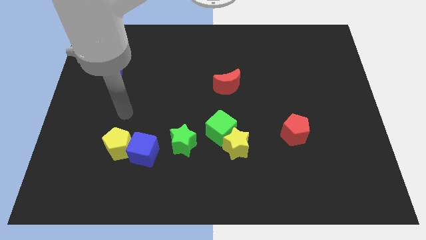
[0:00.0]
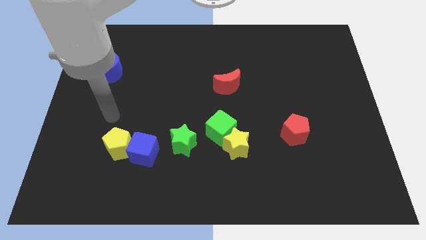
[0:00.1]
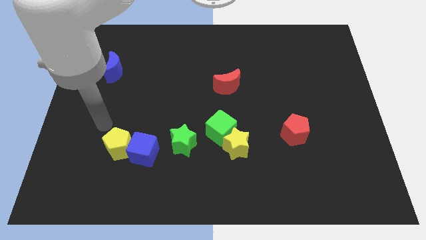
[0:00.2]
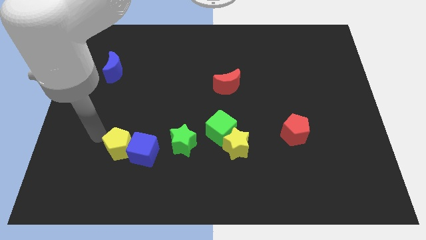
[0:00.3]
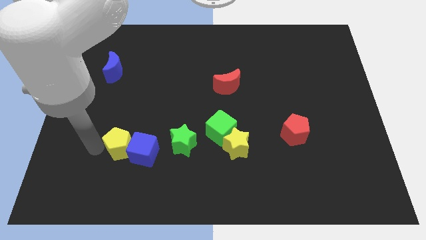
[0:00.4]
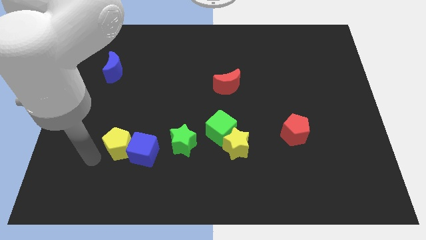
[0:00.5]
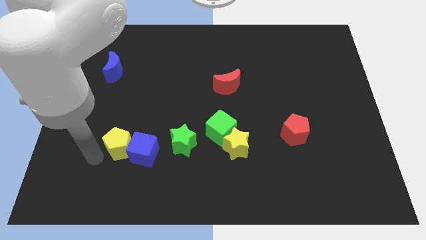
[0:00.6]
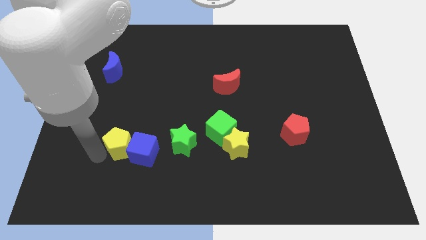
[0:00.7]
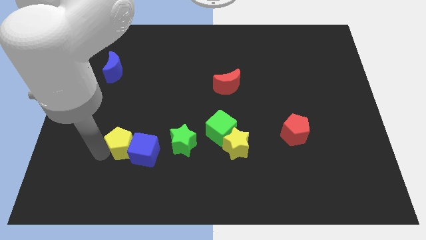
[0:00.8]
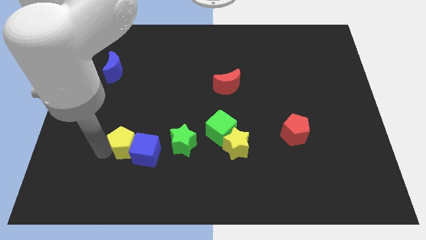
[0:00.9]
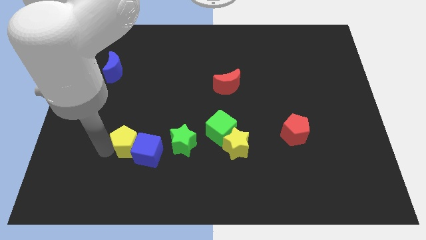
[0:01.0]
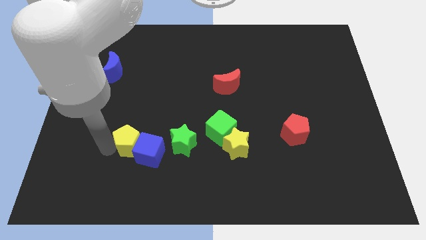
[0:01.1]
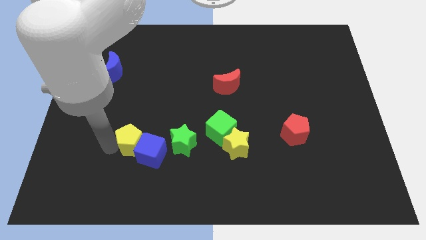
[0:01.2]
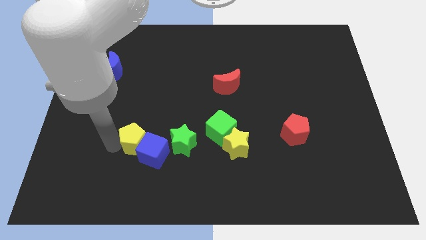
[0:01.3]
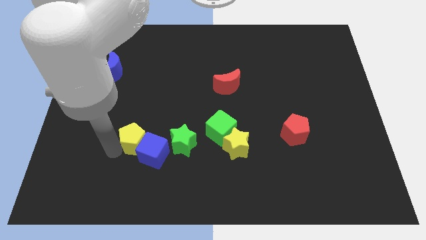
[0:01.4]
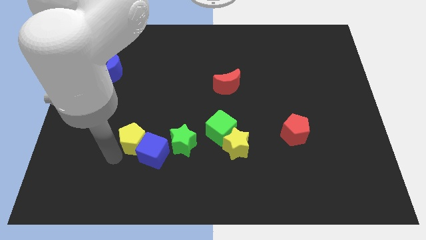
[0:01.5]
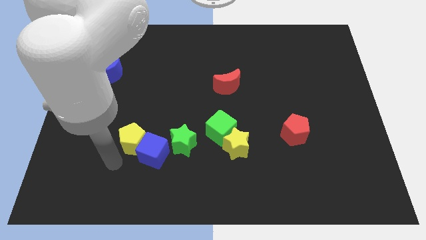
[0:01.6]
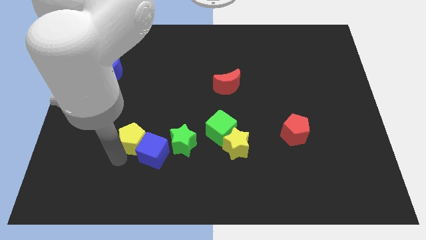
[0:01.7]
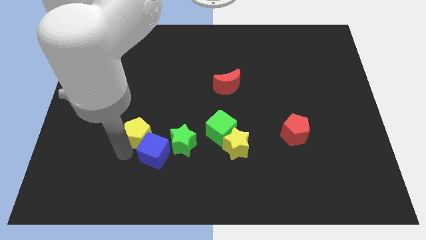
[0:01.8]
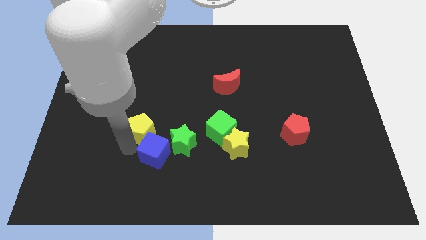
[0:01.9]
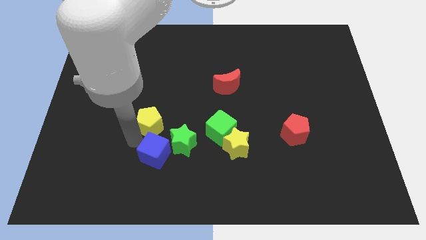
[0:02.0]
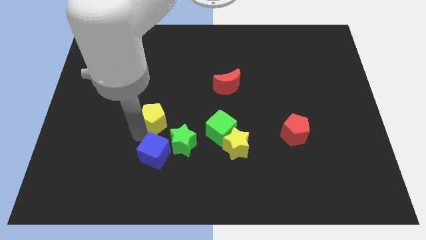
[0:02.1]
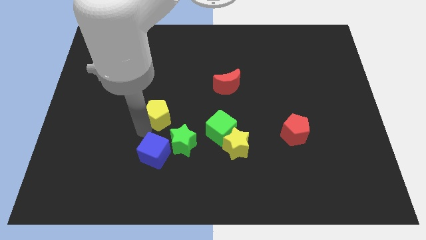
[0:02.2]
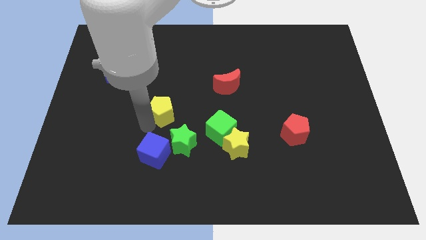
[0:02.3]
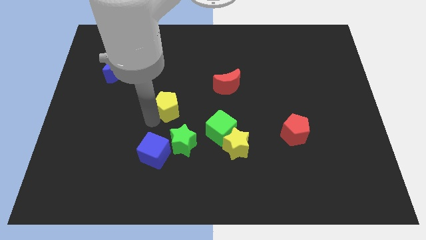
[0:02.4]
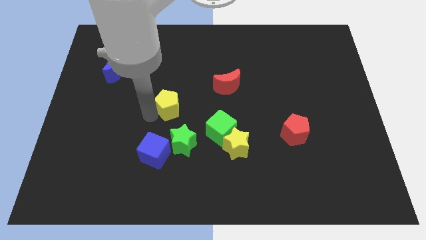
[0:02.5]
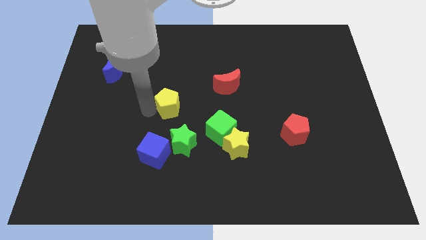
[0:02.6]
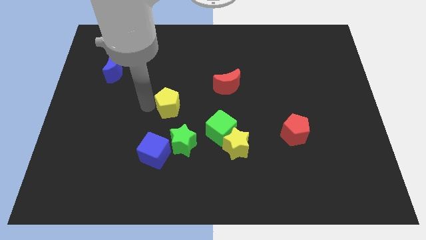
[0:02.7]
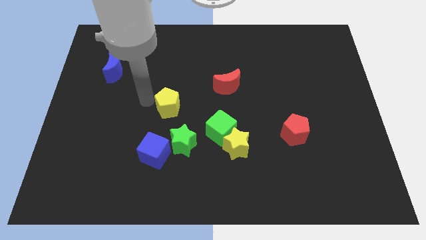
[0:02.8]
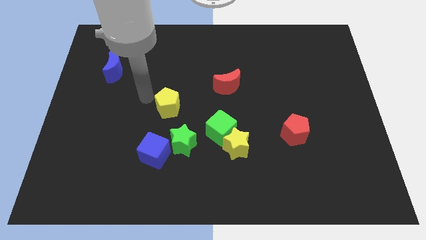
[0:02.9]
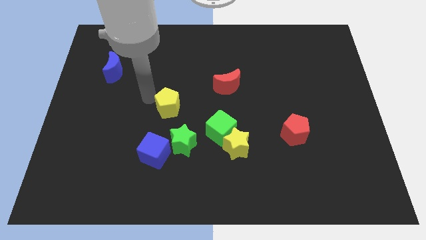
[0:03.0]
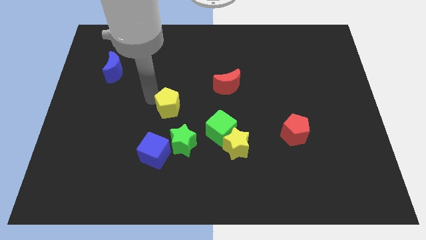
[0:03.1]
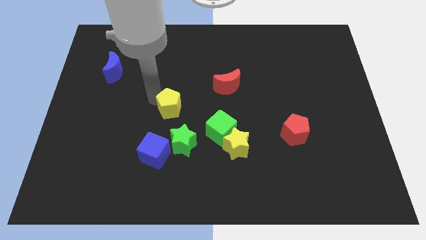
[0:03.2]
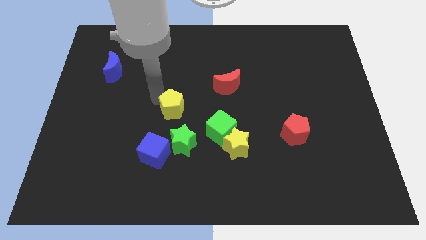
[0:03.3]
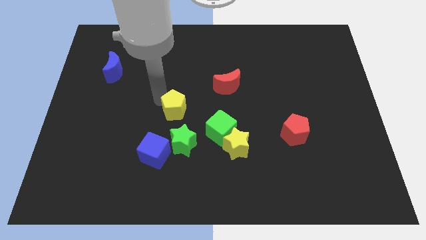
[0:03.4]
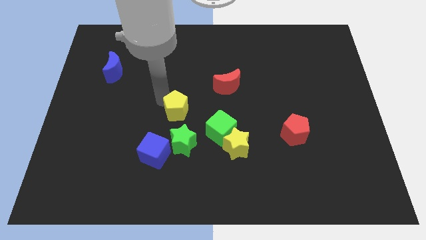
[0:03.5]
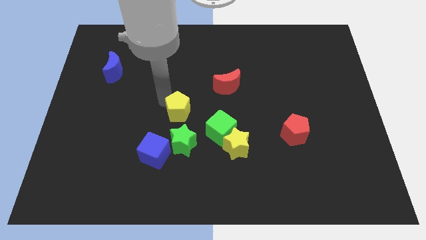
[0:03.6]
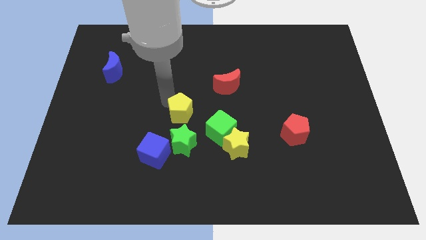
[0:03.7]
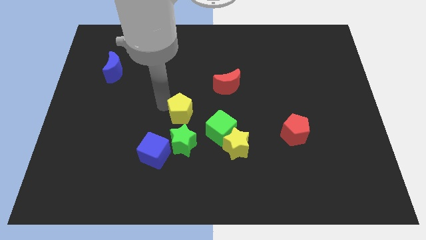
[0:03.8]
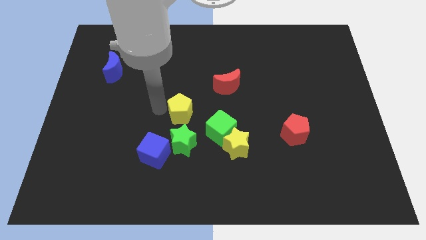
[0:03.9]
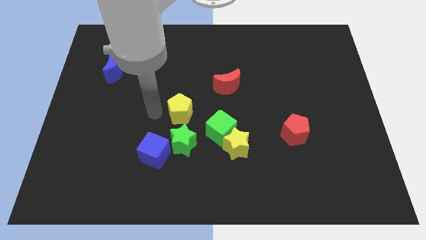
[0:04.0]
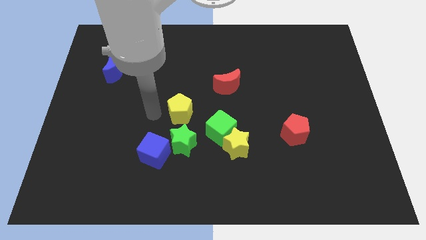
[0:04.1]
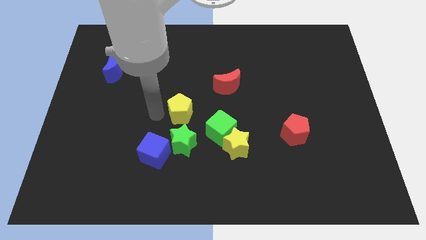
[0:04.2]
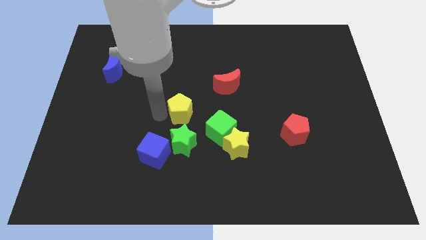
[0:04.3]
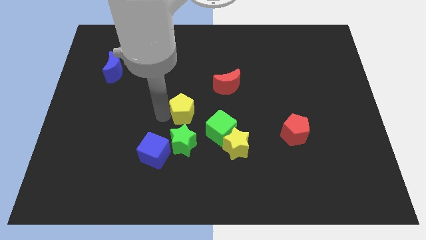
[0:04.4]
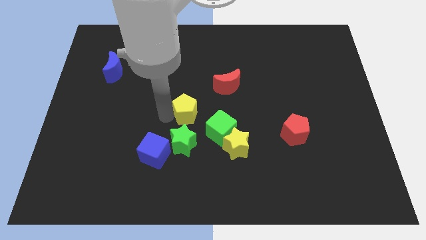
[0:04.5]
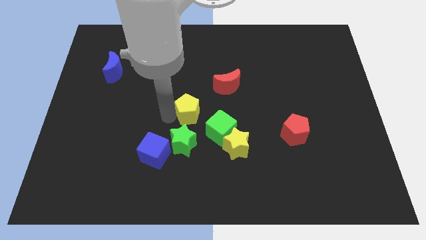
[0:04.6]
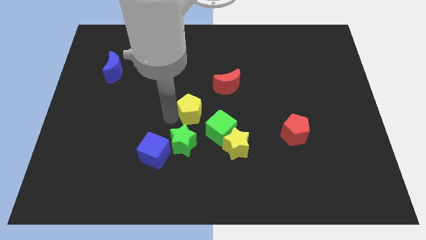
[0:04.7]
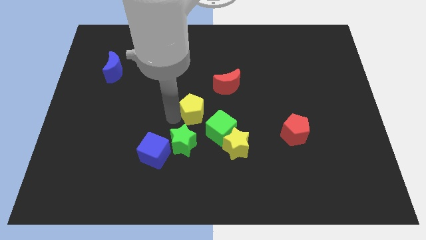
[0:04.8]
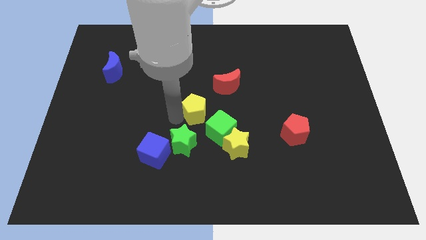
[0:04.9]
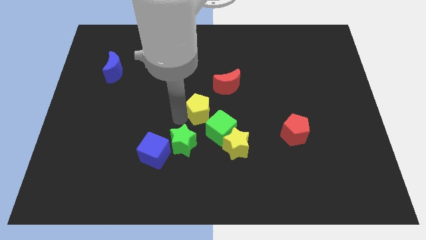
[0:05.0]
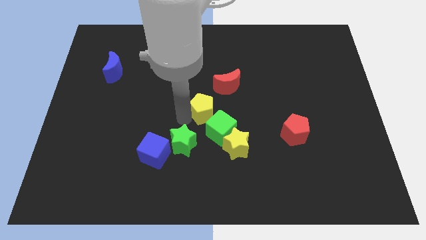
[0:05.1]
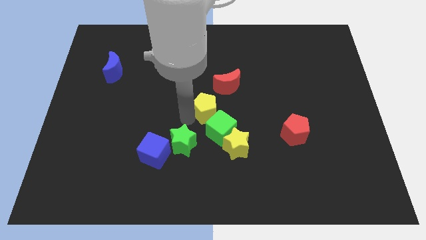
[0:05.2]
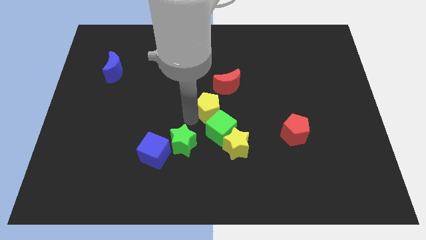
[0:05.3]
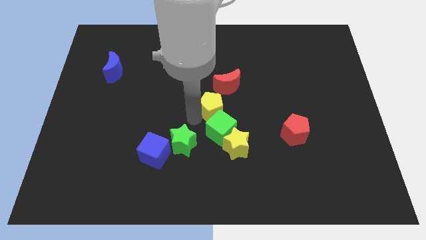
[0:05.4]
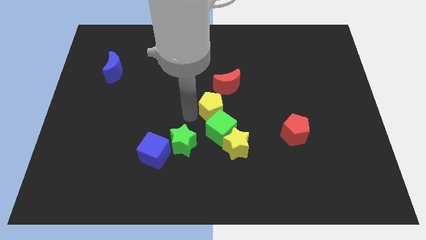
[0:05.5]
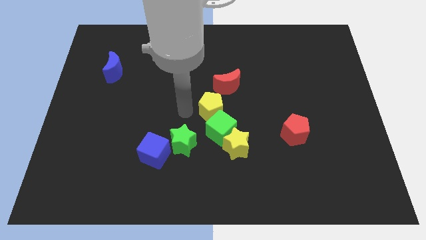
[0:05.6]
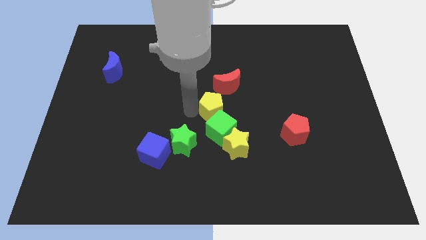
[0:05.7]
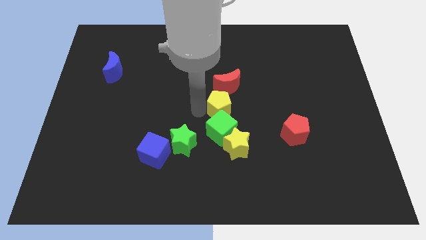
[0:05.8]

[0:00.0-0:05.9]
move the yellow pentagon to the top of the yellow star

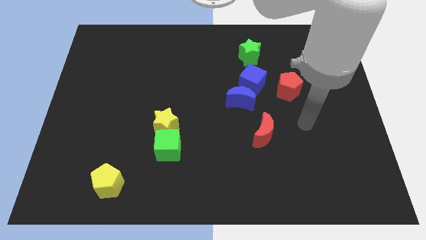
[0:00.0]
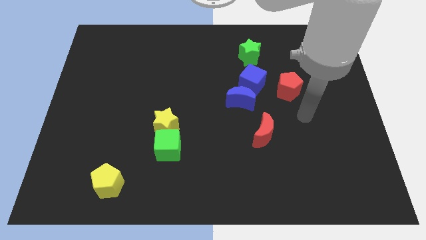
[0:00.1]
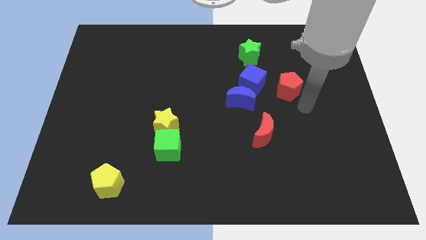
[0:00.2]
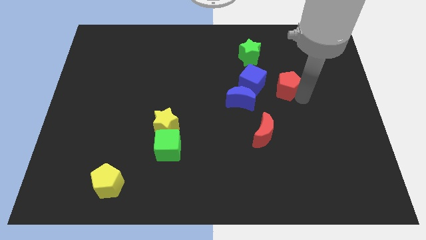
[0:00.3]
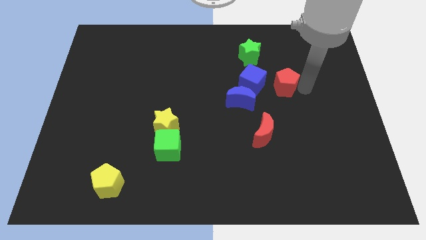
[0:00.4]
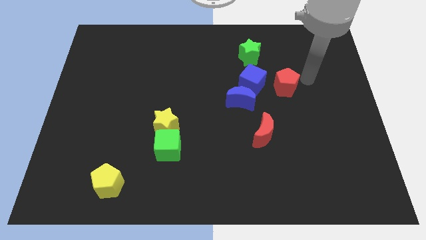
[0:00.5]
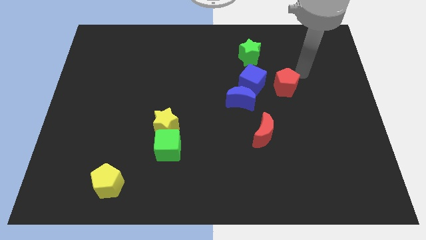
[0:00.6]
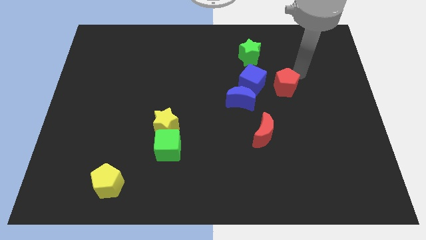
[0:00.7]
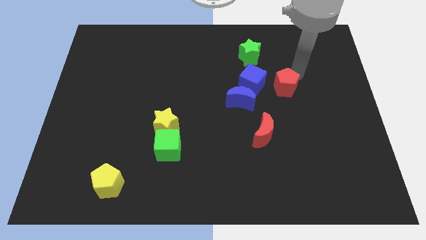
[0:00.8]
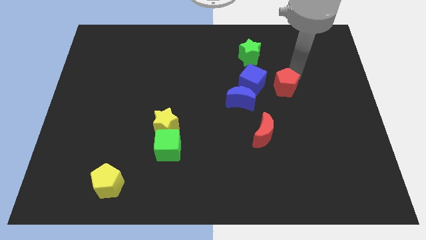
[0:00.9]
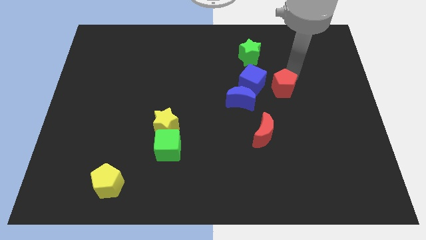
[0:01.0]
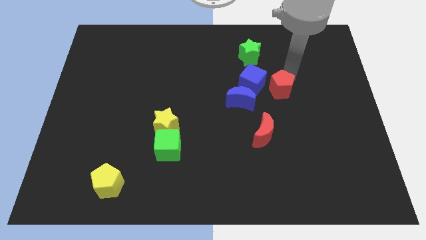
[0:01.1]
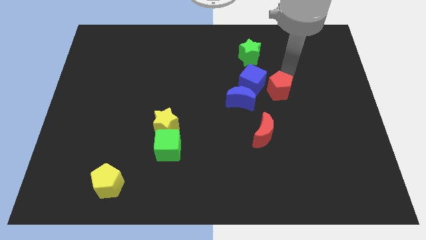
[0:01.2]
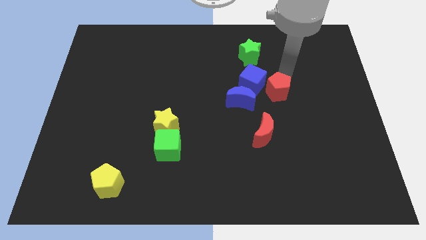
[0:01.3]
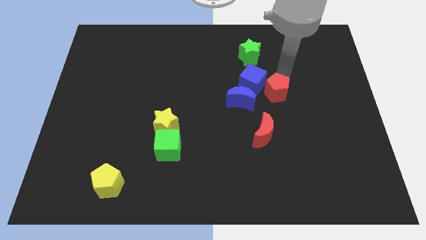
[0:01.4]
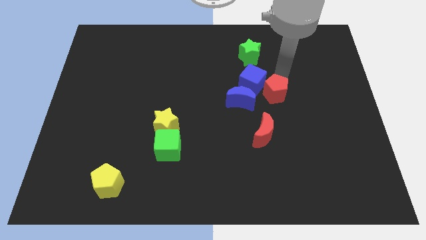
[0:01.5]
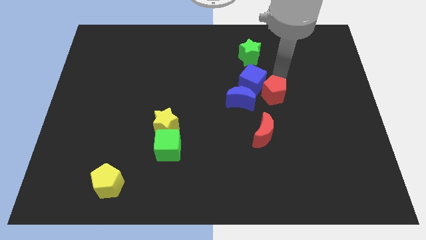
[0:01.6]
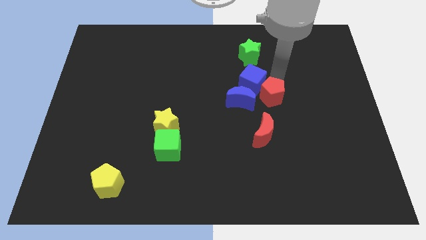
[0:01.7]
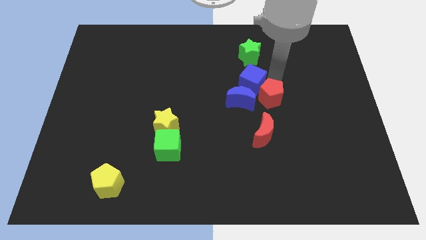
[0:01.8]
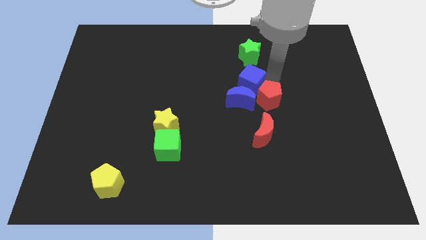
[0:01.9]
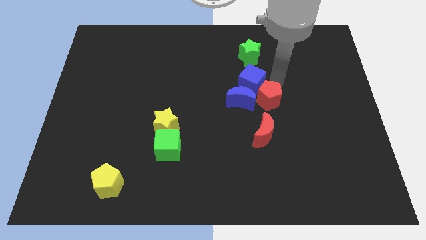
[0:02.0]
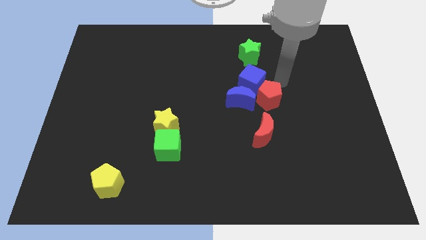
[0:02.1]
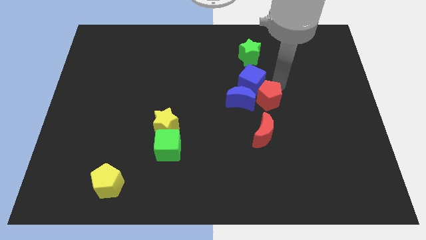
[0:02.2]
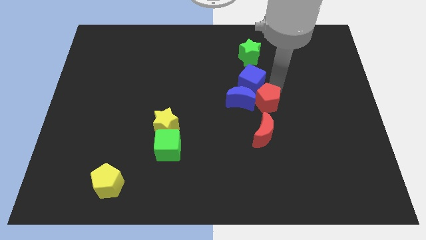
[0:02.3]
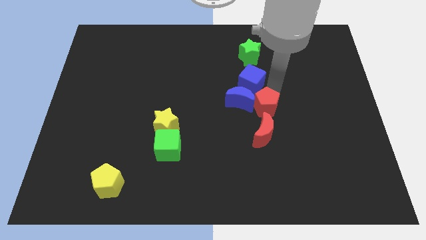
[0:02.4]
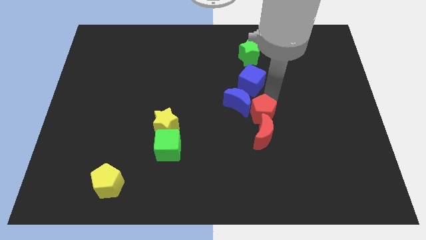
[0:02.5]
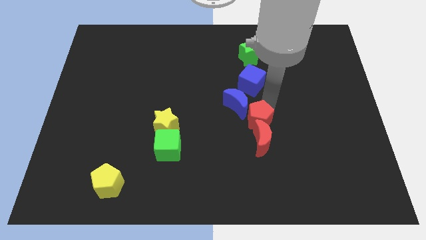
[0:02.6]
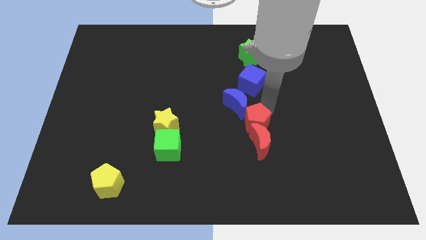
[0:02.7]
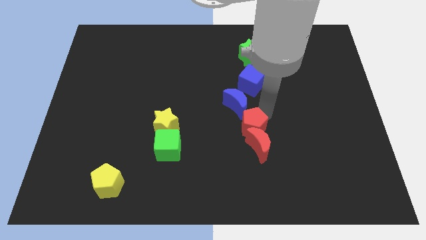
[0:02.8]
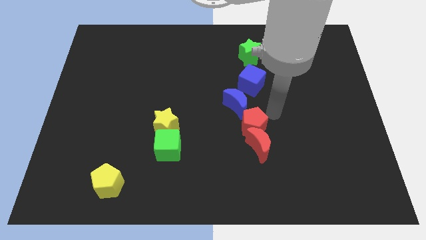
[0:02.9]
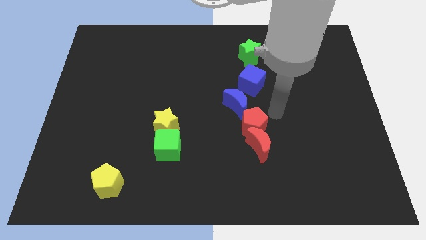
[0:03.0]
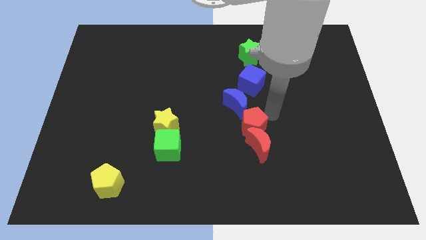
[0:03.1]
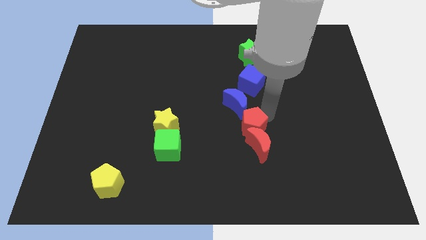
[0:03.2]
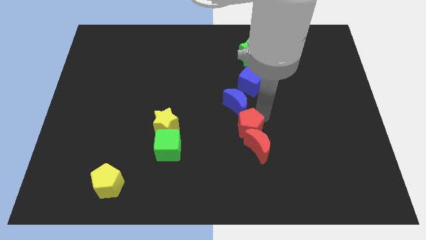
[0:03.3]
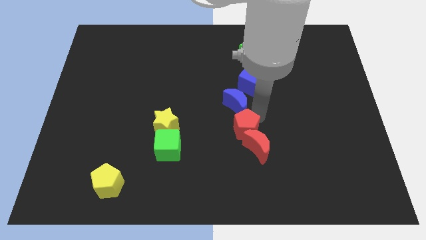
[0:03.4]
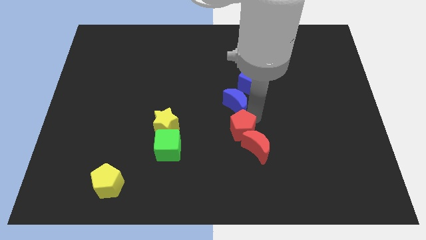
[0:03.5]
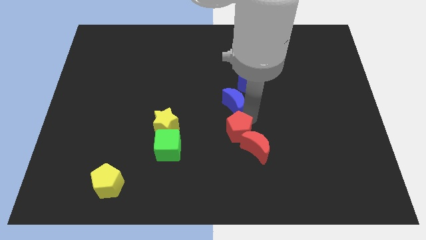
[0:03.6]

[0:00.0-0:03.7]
push the red pentagon left of the red moon
